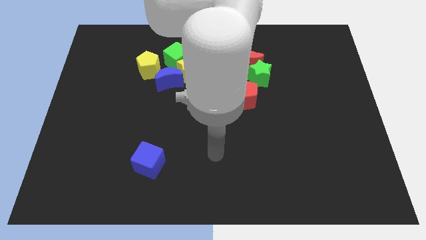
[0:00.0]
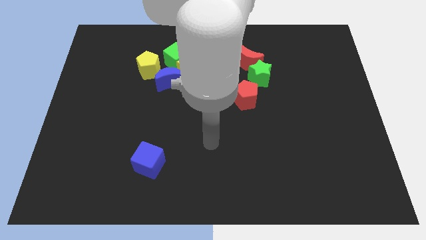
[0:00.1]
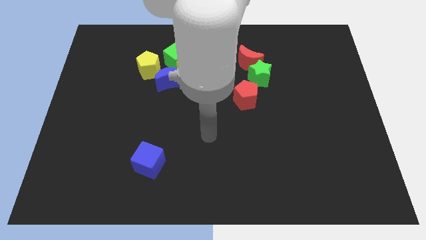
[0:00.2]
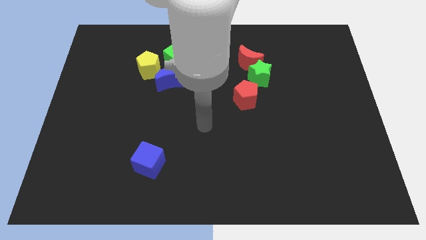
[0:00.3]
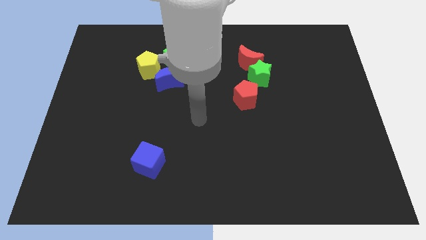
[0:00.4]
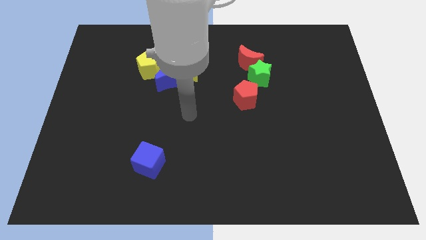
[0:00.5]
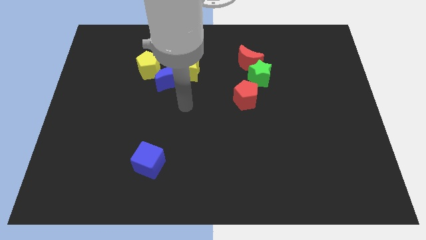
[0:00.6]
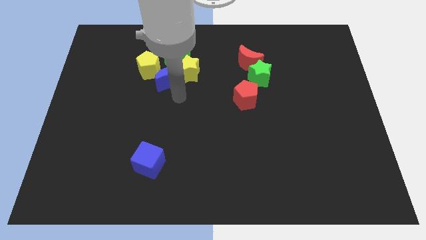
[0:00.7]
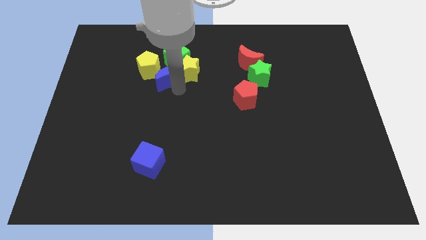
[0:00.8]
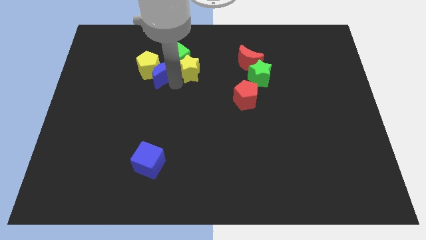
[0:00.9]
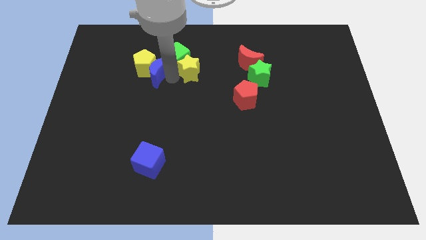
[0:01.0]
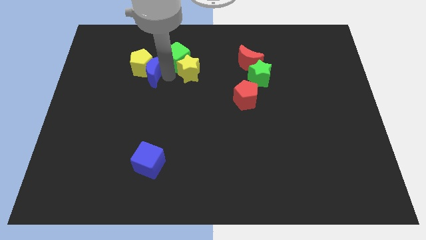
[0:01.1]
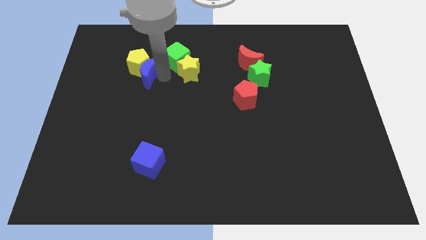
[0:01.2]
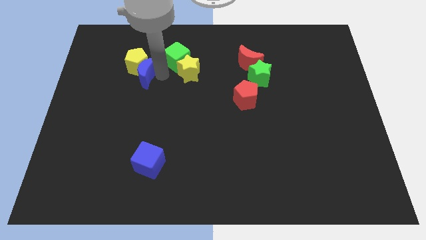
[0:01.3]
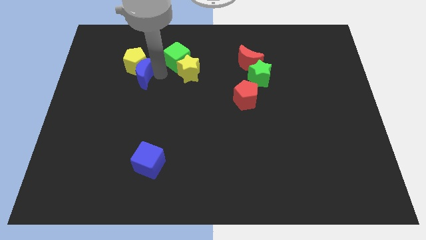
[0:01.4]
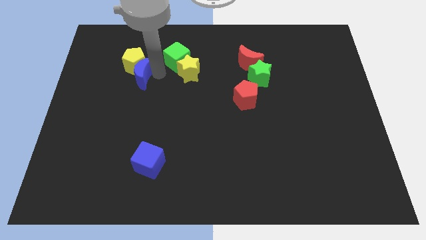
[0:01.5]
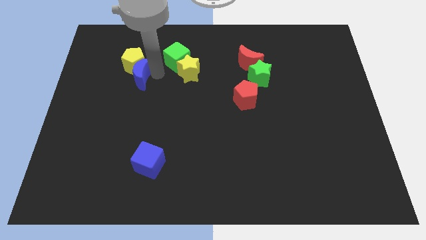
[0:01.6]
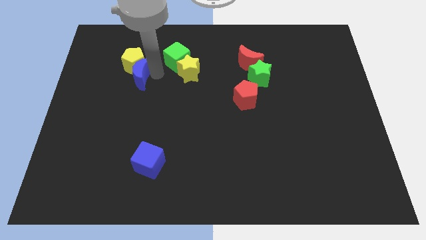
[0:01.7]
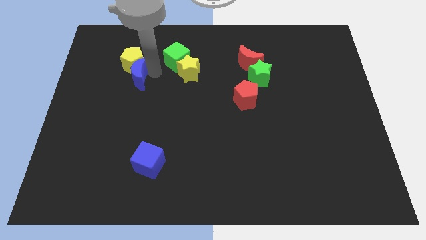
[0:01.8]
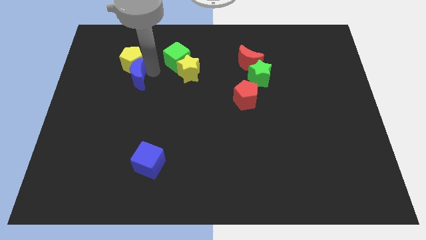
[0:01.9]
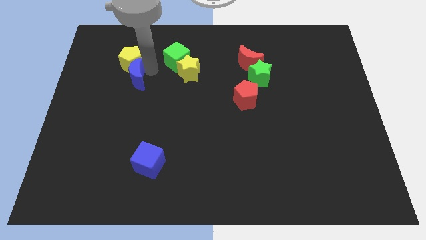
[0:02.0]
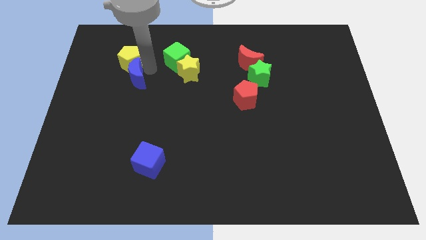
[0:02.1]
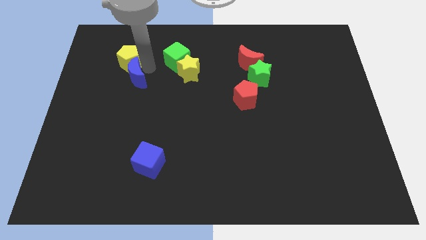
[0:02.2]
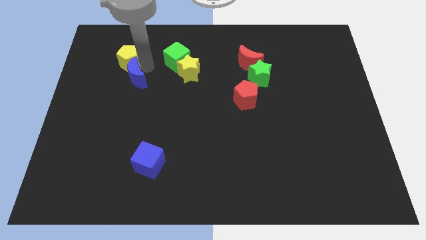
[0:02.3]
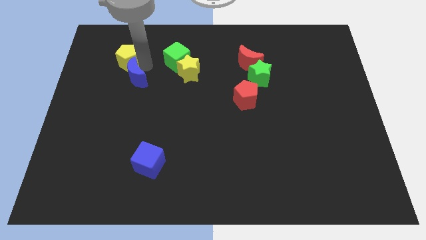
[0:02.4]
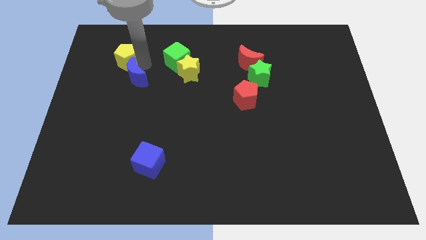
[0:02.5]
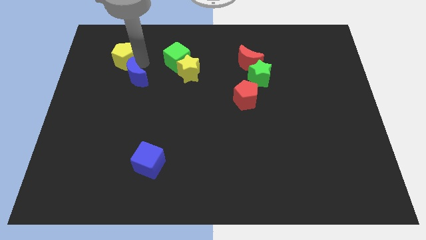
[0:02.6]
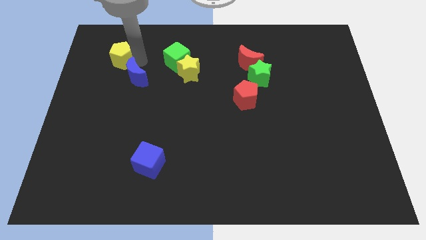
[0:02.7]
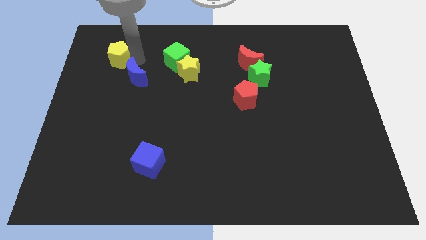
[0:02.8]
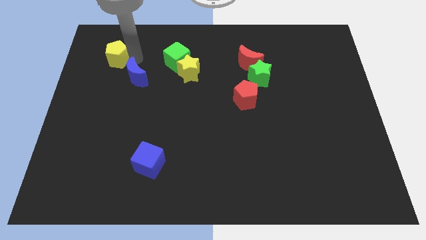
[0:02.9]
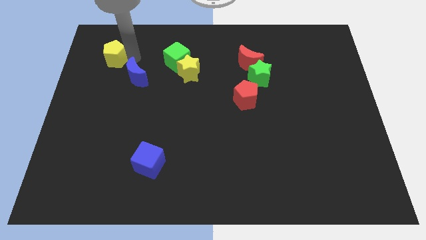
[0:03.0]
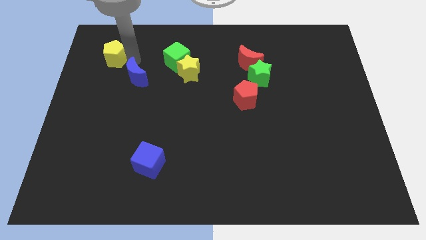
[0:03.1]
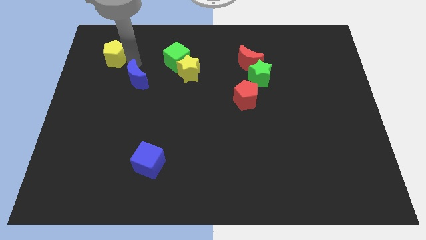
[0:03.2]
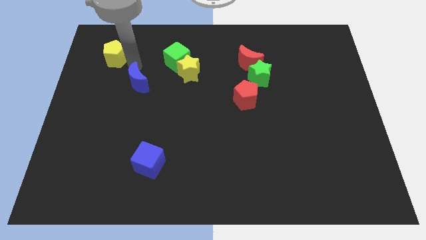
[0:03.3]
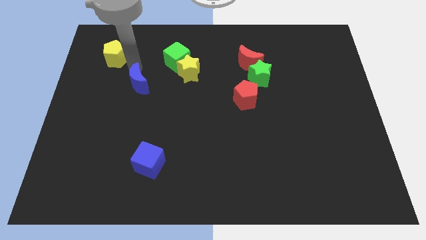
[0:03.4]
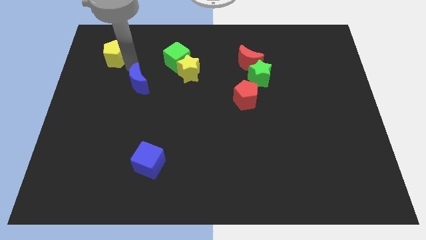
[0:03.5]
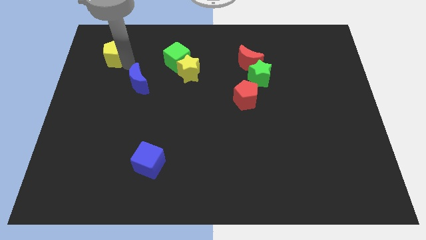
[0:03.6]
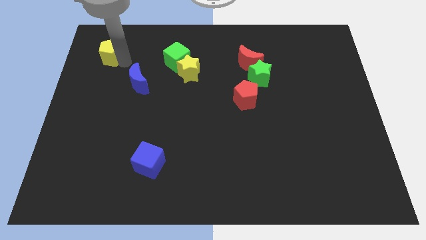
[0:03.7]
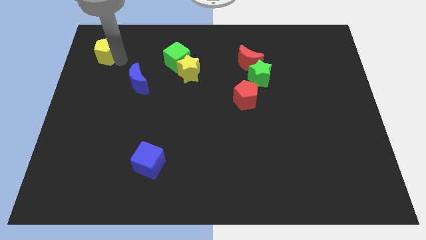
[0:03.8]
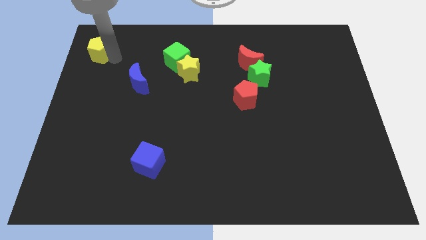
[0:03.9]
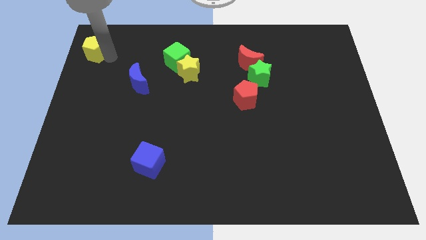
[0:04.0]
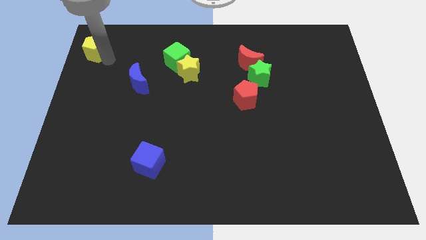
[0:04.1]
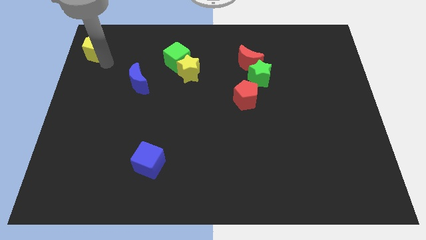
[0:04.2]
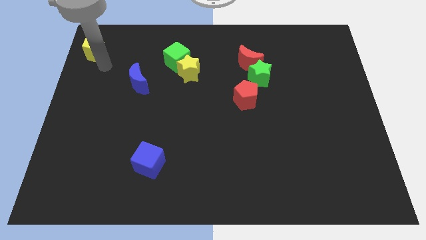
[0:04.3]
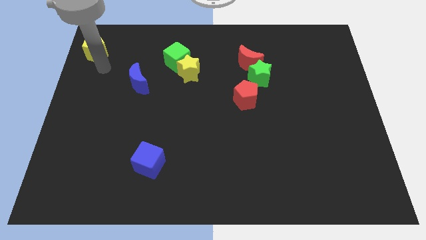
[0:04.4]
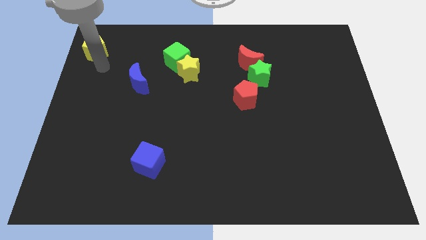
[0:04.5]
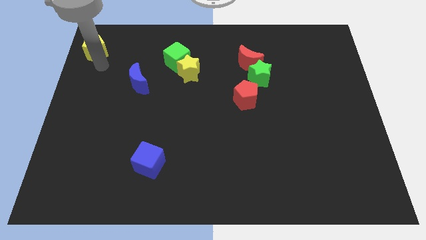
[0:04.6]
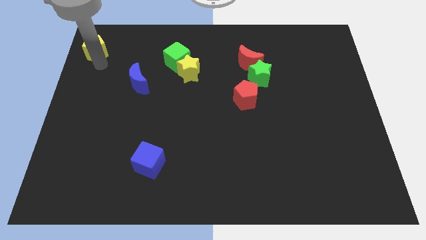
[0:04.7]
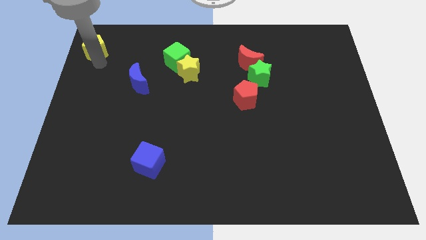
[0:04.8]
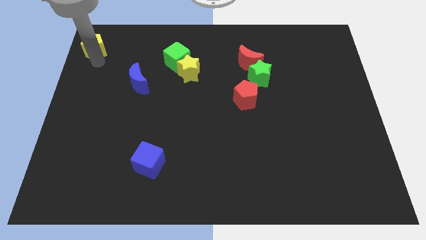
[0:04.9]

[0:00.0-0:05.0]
put the yellow pentagon to the upper left corner

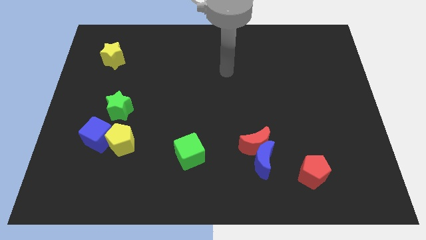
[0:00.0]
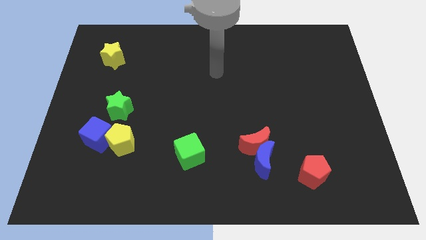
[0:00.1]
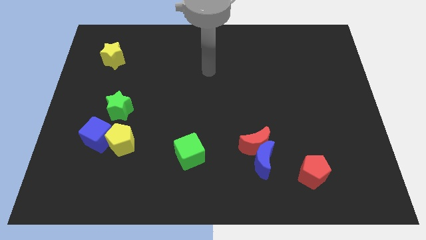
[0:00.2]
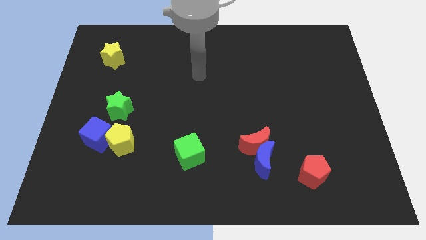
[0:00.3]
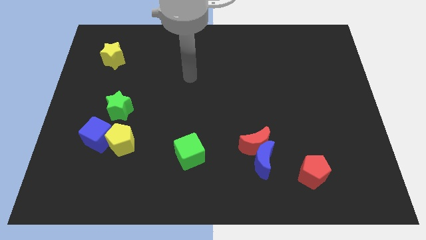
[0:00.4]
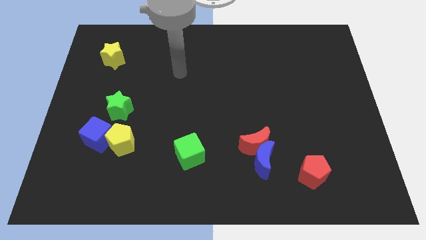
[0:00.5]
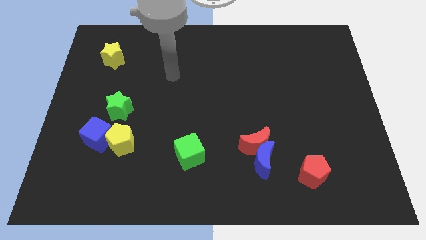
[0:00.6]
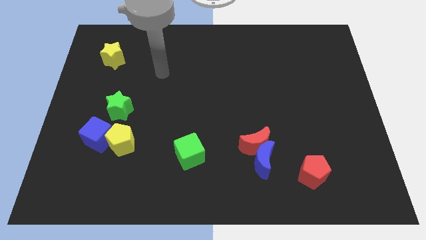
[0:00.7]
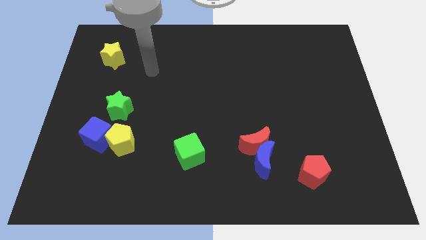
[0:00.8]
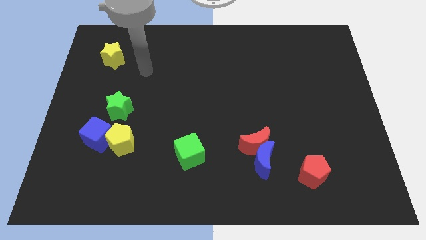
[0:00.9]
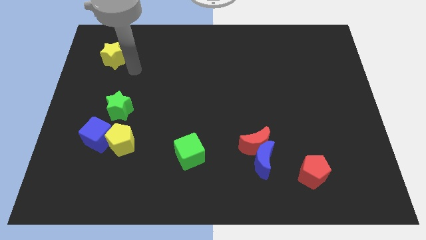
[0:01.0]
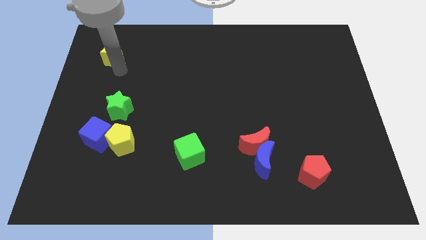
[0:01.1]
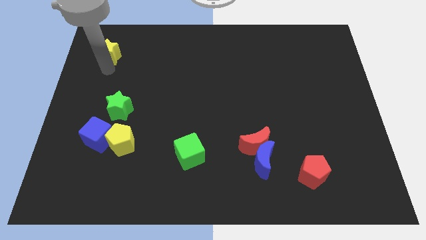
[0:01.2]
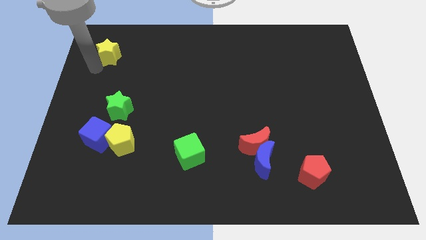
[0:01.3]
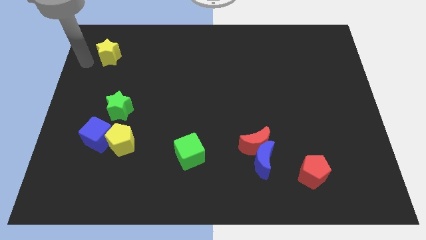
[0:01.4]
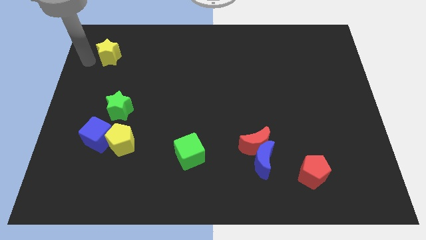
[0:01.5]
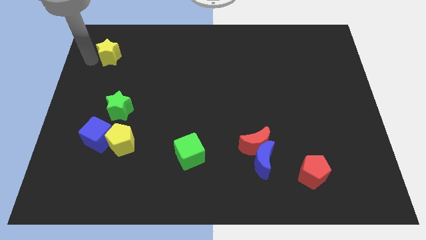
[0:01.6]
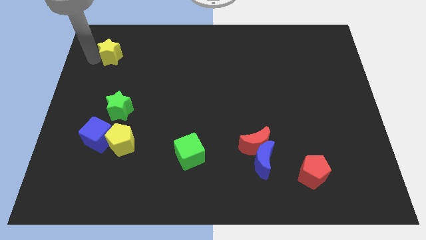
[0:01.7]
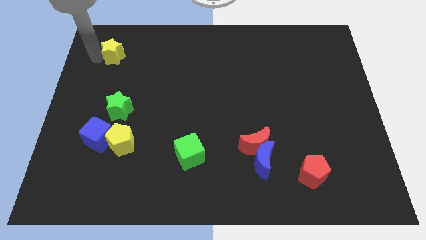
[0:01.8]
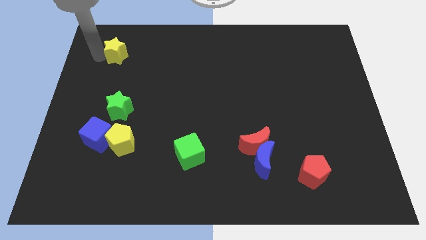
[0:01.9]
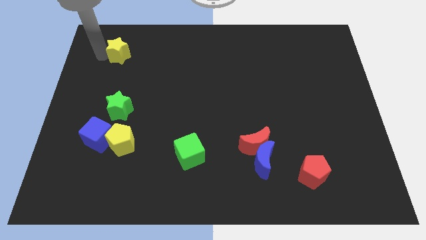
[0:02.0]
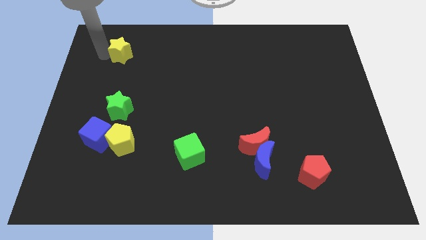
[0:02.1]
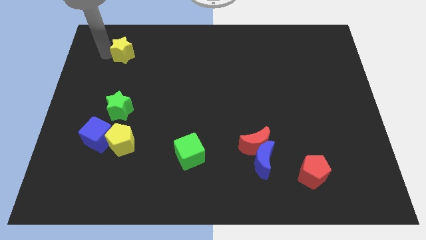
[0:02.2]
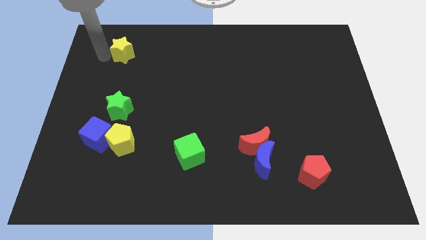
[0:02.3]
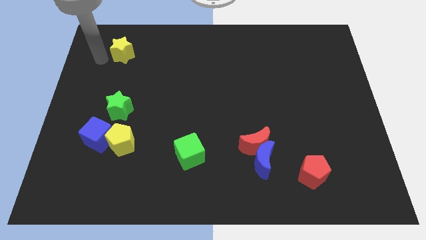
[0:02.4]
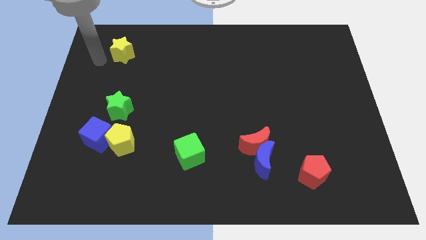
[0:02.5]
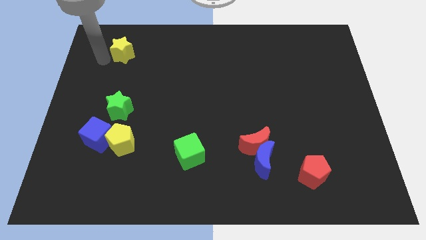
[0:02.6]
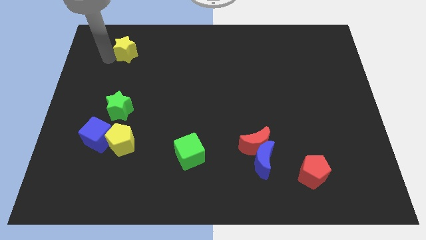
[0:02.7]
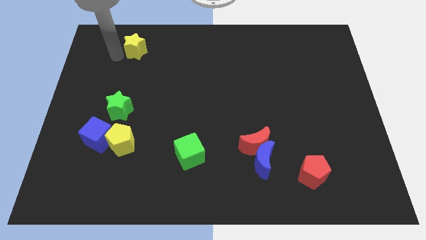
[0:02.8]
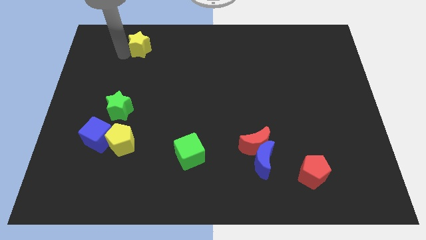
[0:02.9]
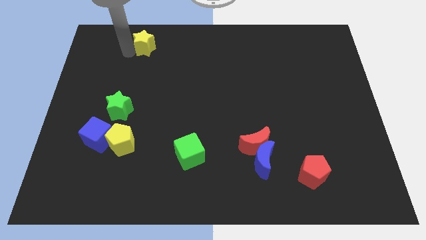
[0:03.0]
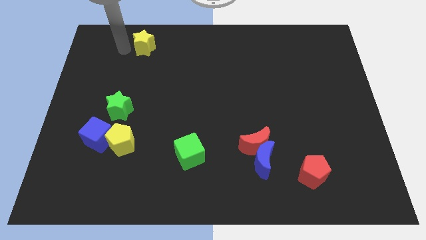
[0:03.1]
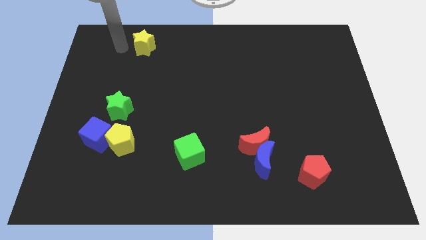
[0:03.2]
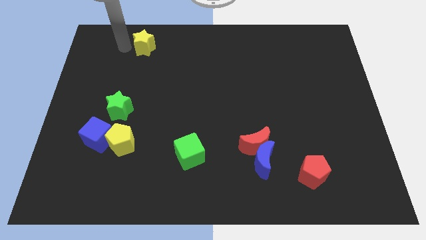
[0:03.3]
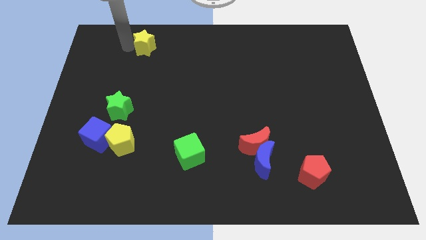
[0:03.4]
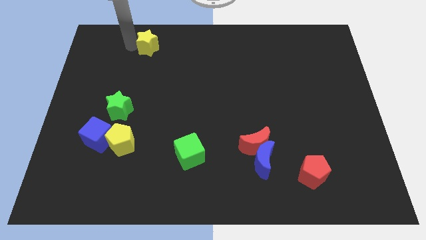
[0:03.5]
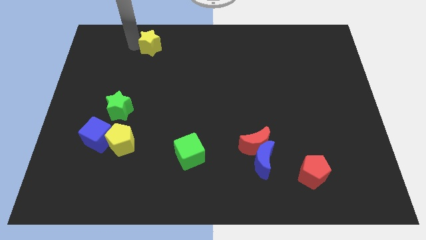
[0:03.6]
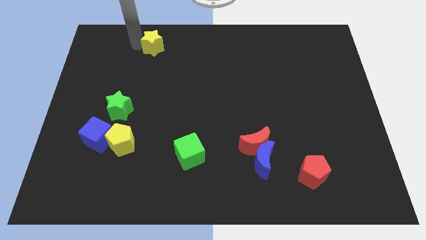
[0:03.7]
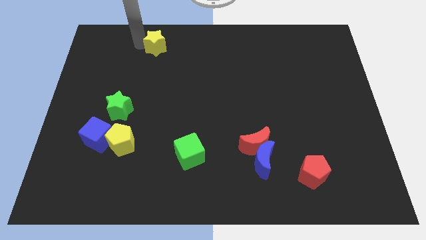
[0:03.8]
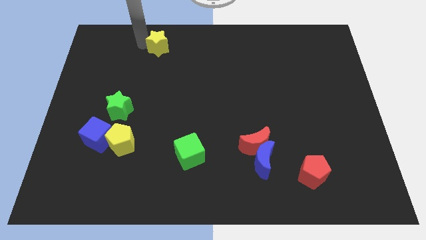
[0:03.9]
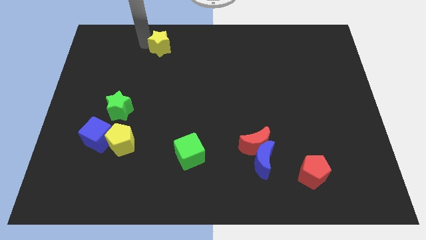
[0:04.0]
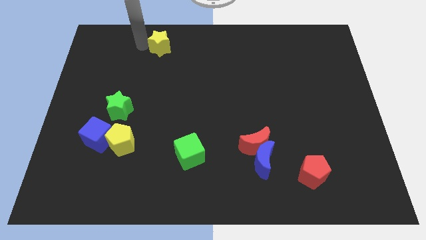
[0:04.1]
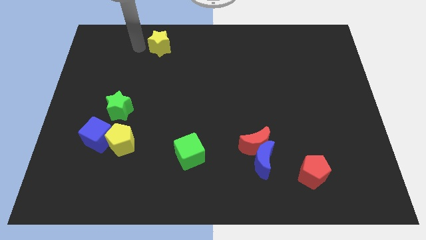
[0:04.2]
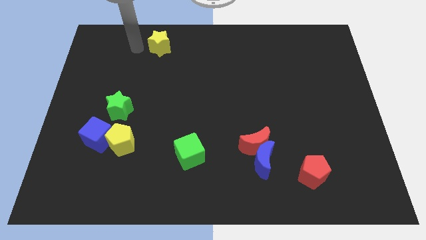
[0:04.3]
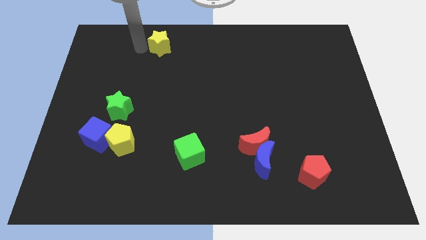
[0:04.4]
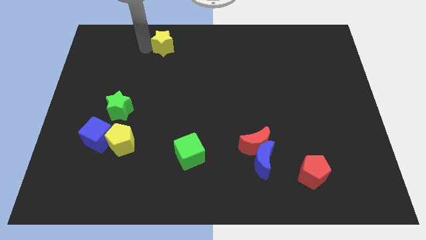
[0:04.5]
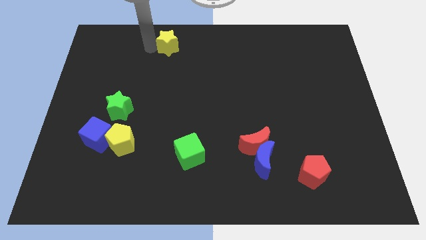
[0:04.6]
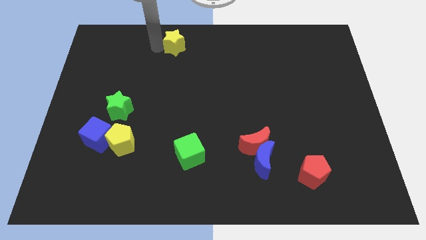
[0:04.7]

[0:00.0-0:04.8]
put the yellow star to the top
